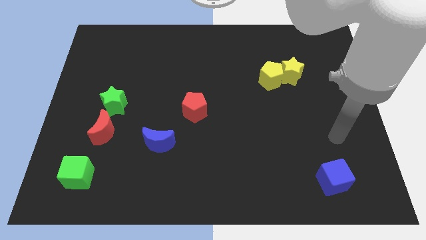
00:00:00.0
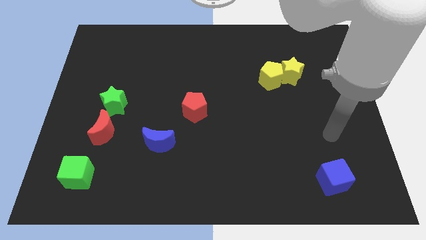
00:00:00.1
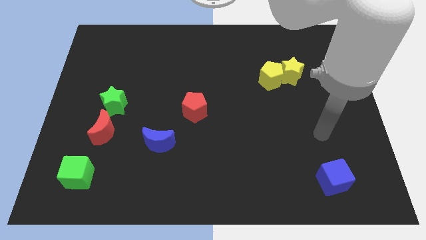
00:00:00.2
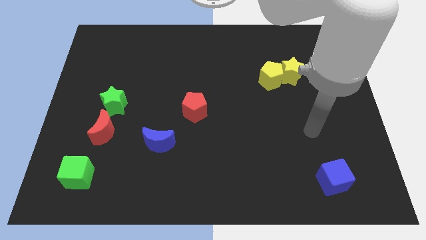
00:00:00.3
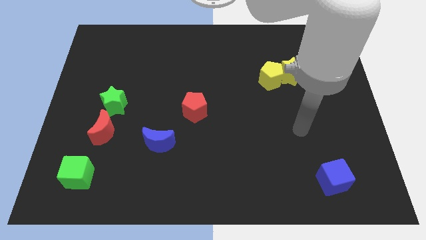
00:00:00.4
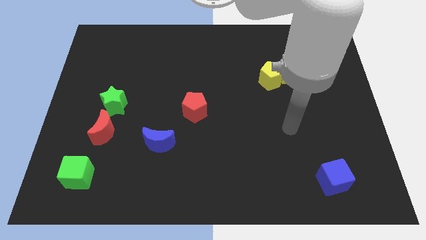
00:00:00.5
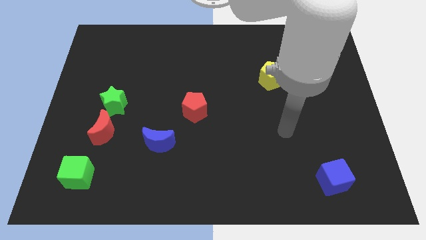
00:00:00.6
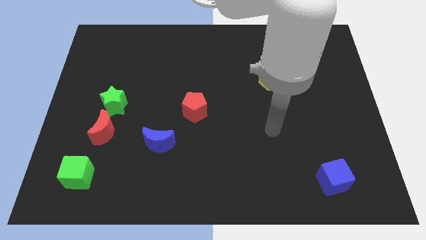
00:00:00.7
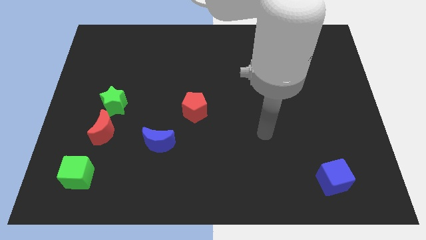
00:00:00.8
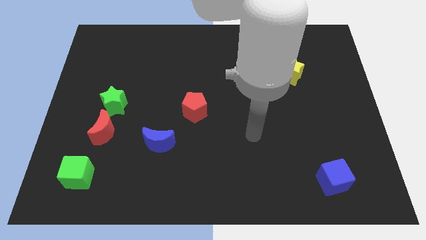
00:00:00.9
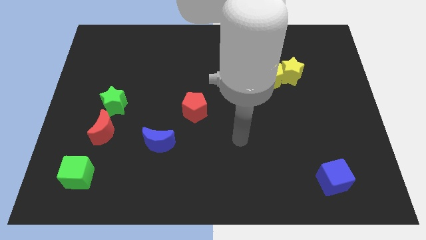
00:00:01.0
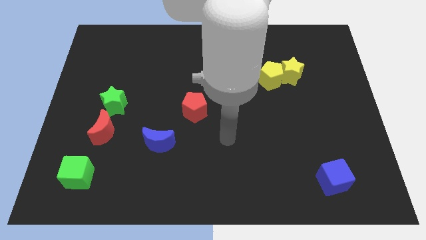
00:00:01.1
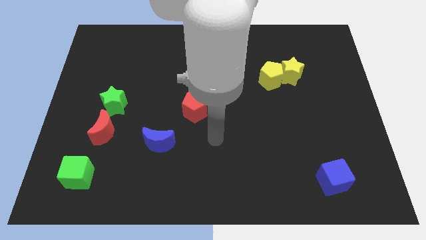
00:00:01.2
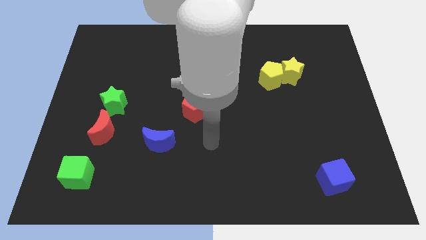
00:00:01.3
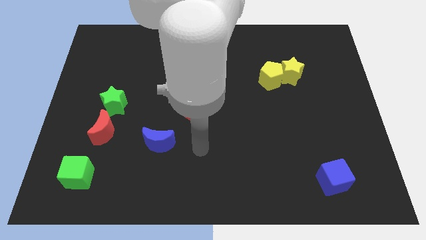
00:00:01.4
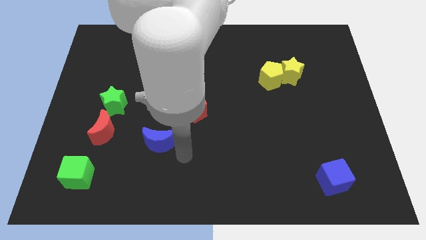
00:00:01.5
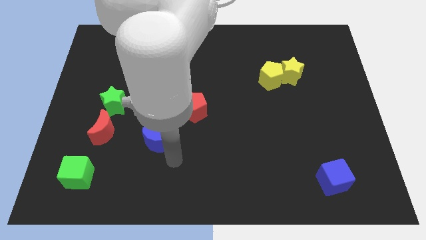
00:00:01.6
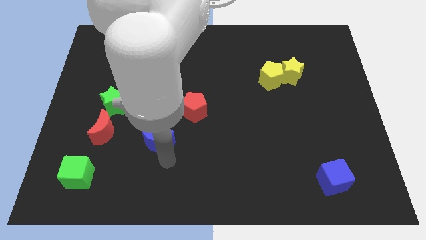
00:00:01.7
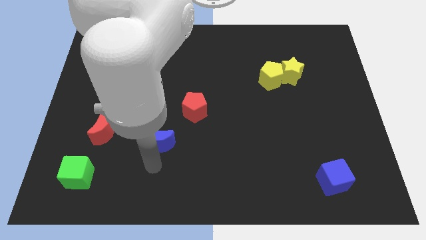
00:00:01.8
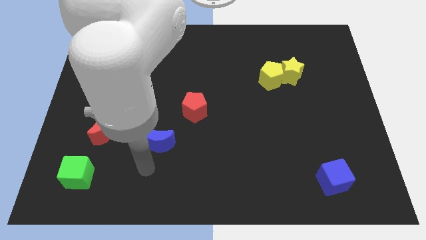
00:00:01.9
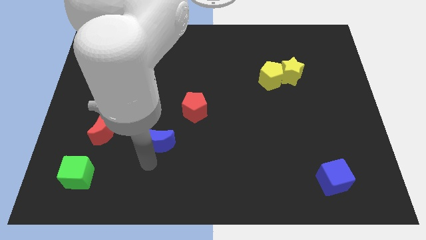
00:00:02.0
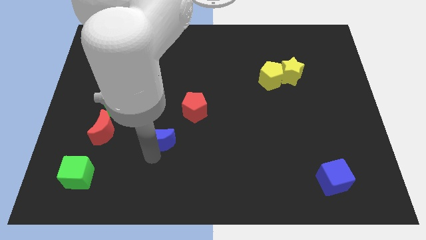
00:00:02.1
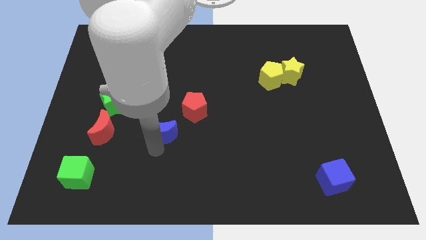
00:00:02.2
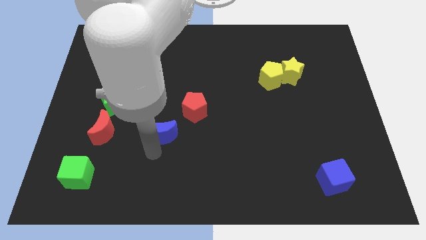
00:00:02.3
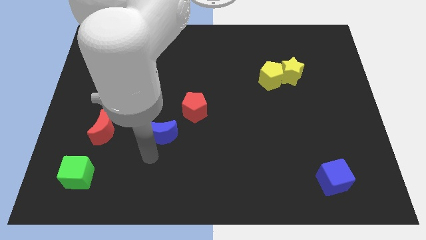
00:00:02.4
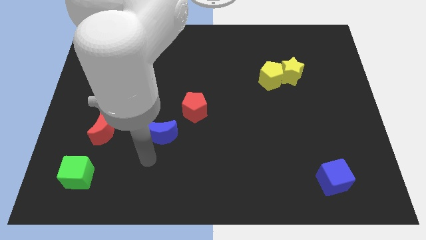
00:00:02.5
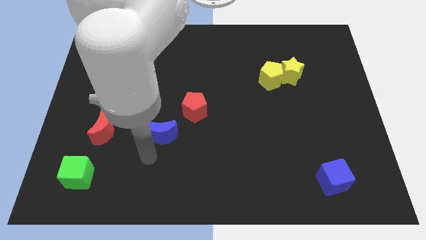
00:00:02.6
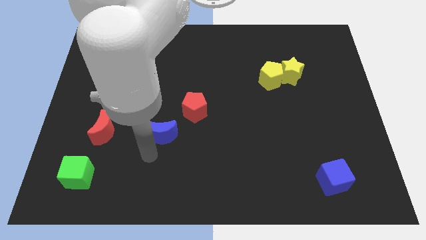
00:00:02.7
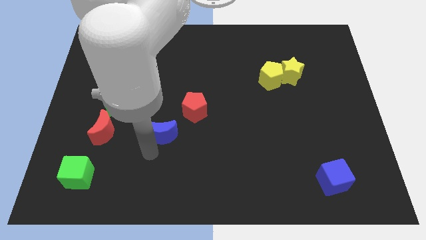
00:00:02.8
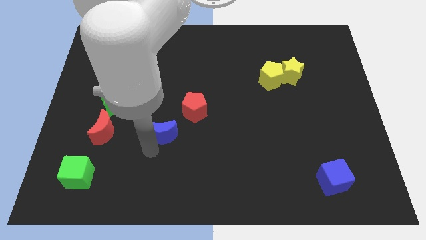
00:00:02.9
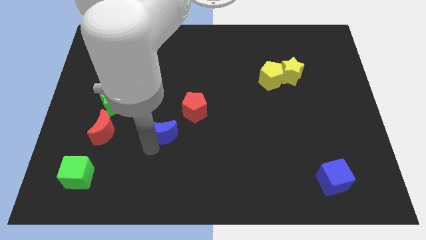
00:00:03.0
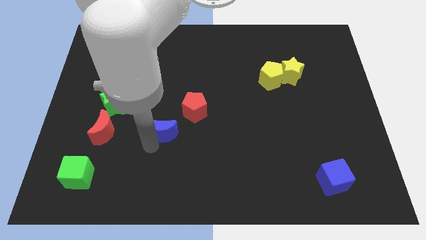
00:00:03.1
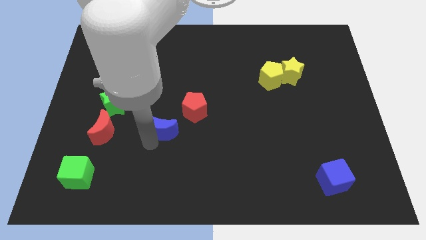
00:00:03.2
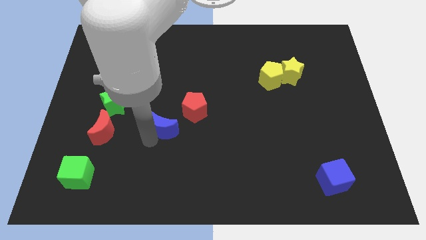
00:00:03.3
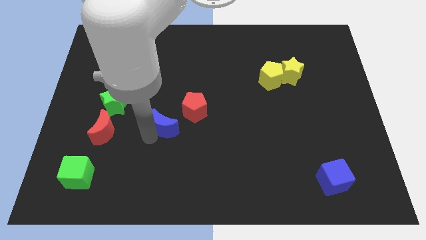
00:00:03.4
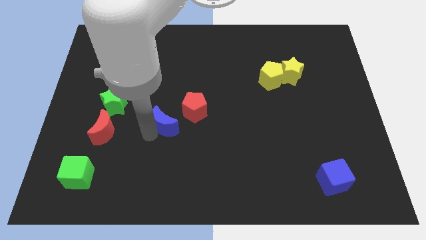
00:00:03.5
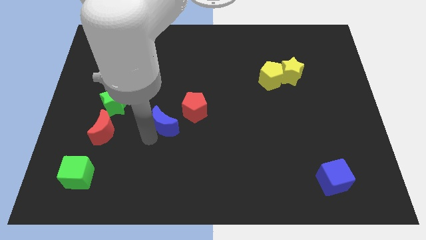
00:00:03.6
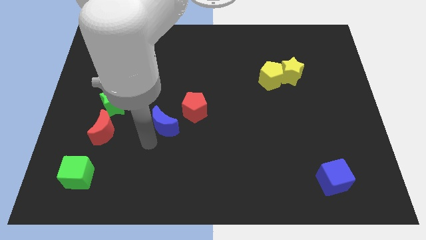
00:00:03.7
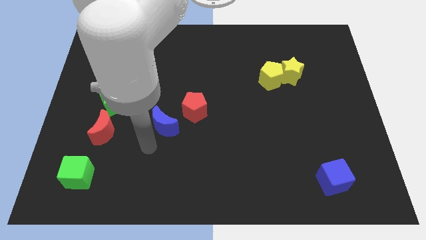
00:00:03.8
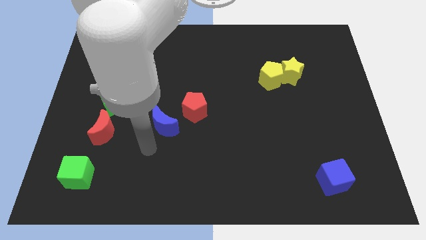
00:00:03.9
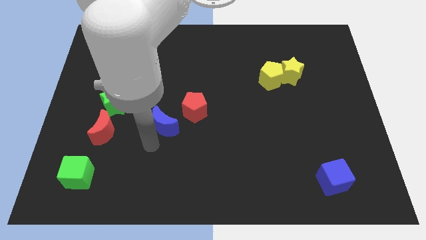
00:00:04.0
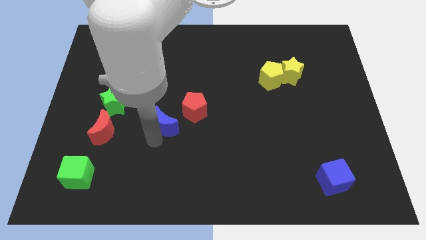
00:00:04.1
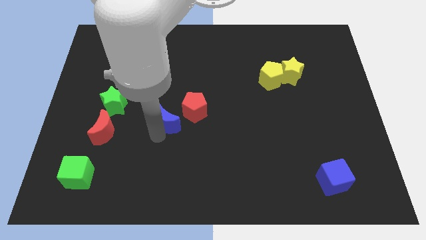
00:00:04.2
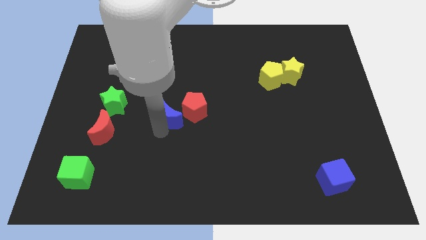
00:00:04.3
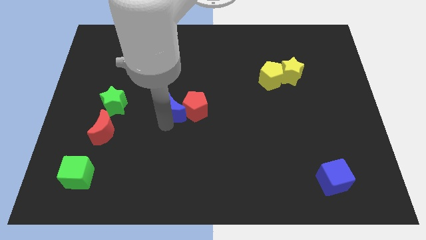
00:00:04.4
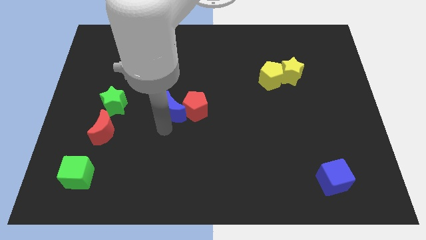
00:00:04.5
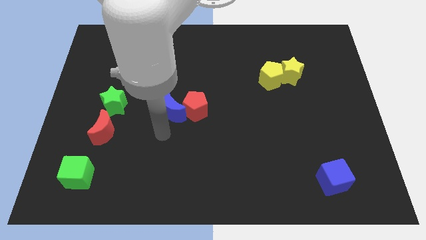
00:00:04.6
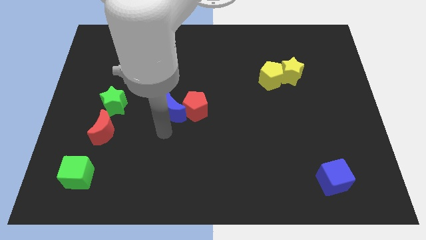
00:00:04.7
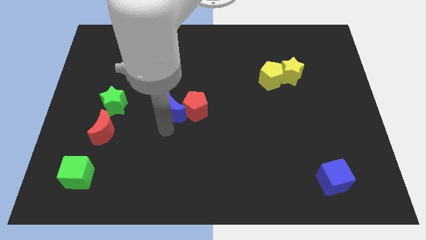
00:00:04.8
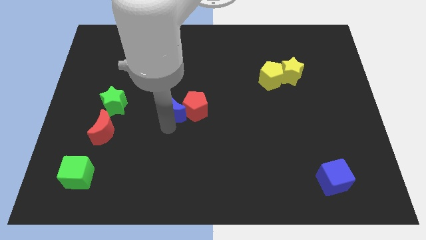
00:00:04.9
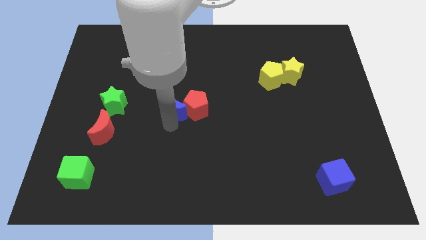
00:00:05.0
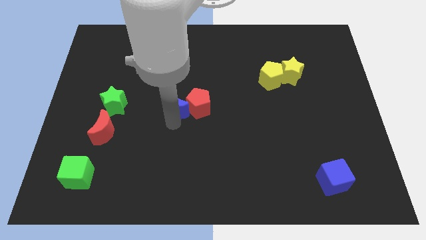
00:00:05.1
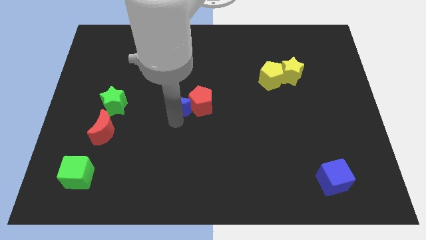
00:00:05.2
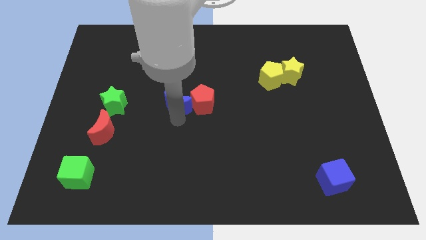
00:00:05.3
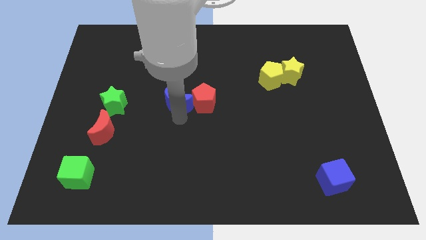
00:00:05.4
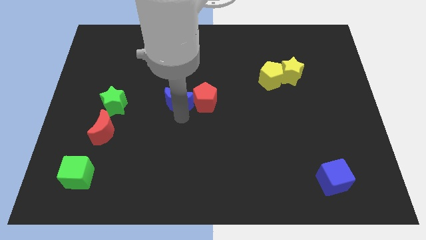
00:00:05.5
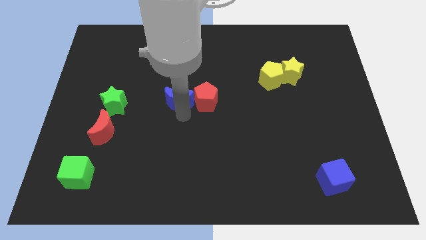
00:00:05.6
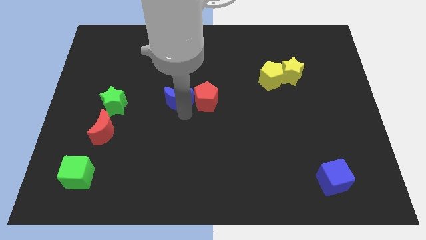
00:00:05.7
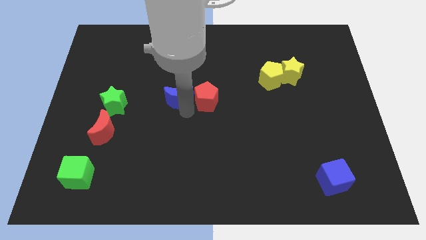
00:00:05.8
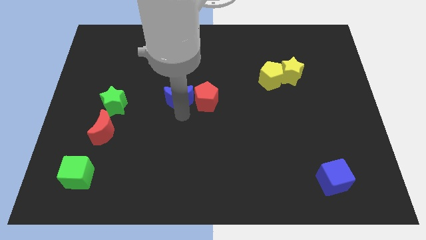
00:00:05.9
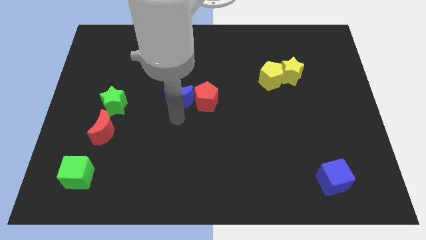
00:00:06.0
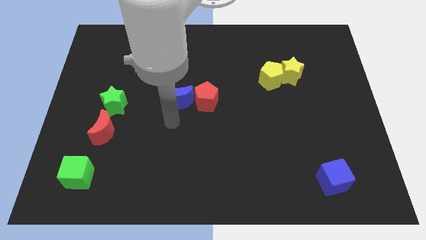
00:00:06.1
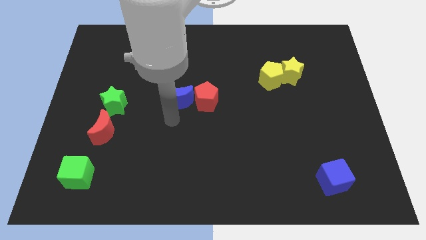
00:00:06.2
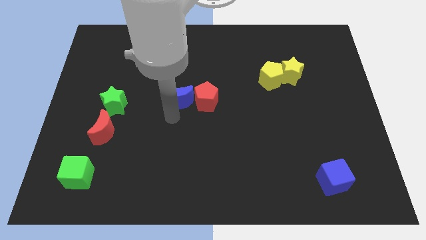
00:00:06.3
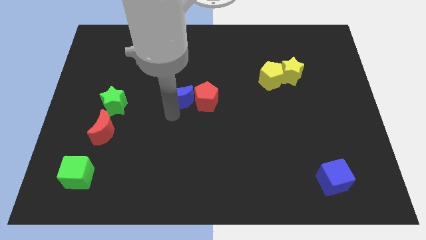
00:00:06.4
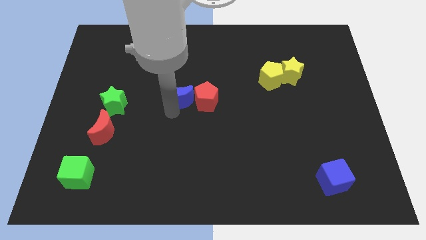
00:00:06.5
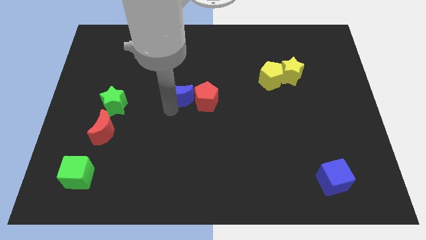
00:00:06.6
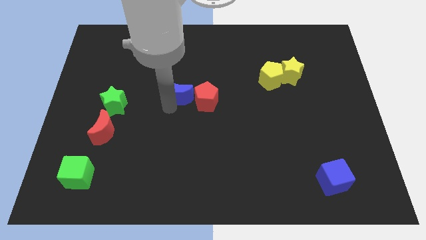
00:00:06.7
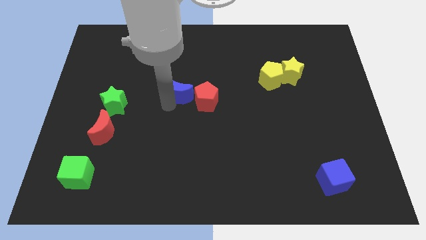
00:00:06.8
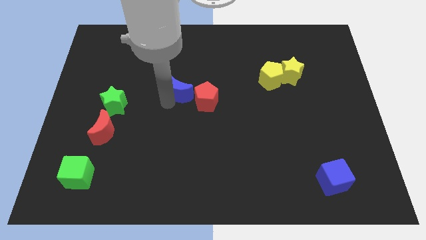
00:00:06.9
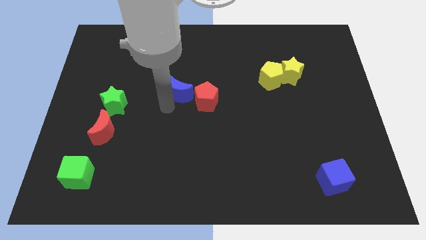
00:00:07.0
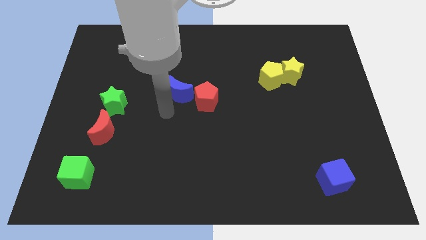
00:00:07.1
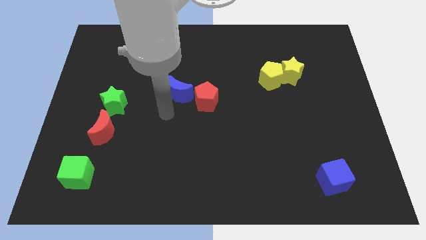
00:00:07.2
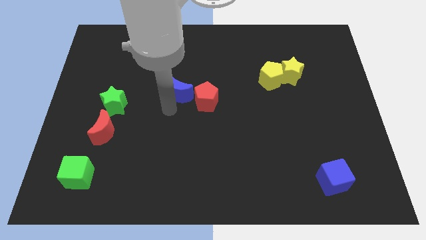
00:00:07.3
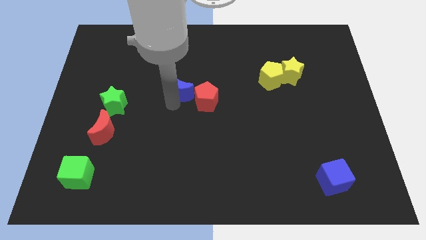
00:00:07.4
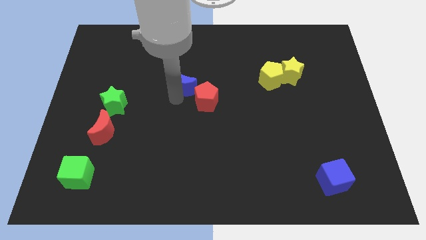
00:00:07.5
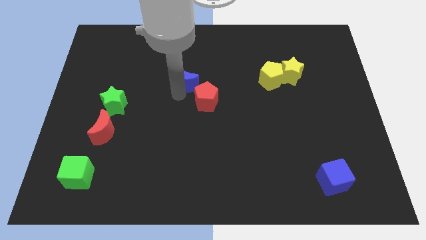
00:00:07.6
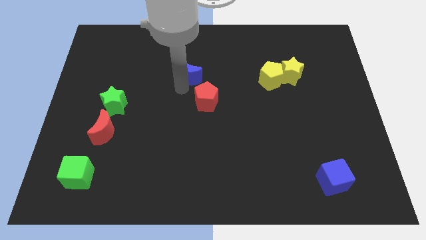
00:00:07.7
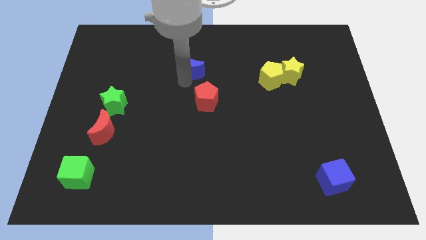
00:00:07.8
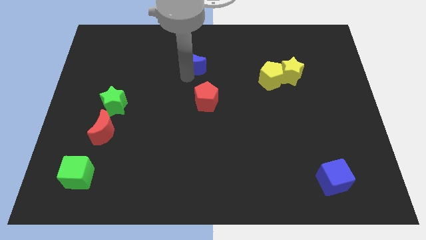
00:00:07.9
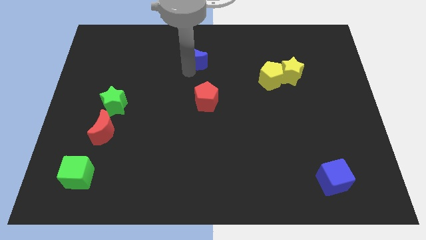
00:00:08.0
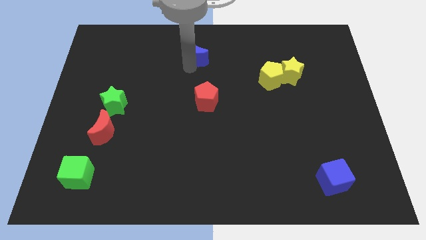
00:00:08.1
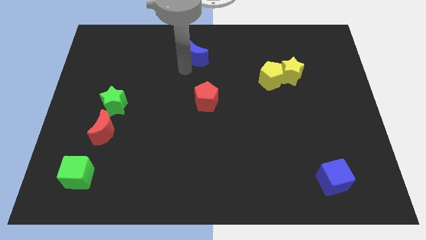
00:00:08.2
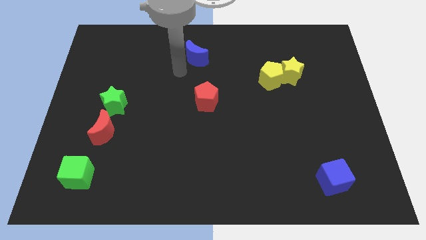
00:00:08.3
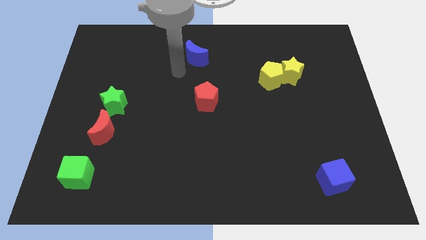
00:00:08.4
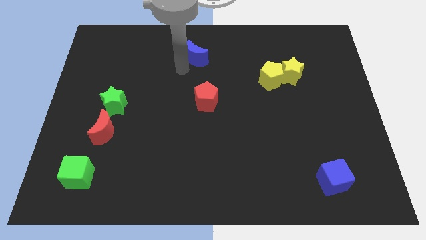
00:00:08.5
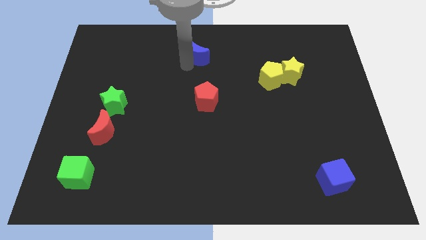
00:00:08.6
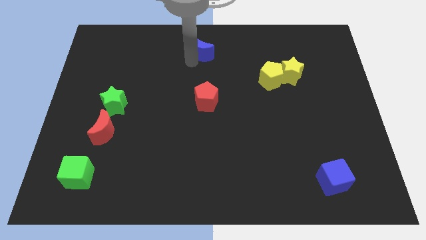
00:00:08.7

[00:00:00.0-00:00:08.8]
slide the blue moon to the towards your base
